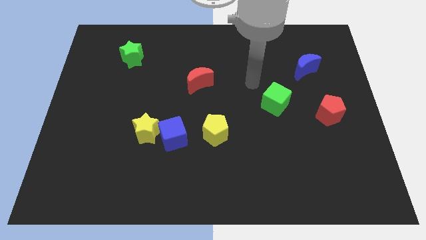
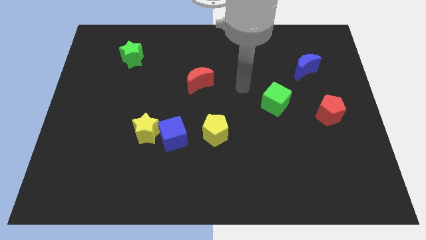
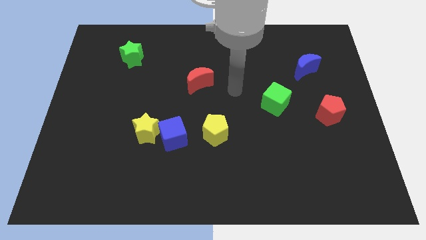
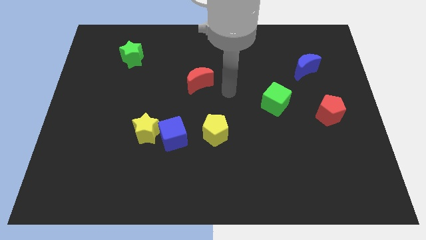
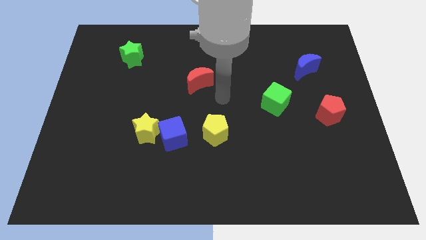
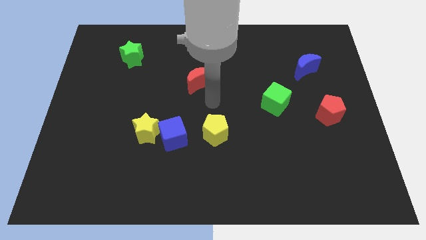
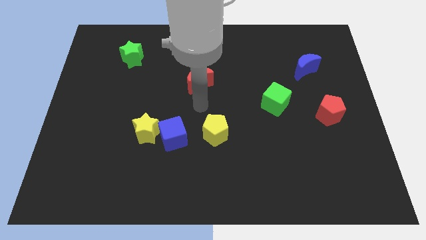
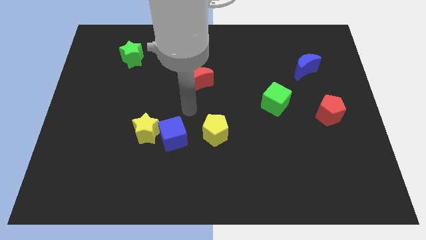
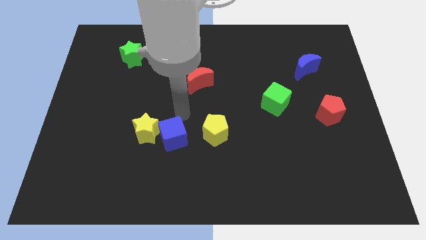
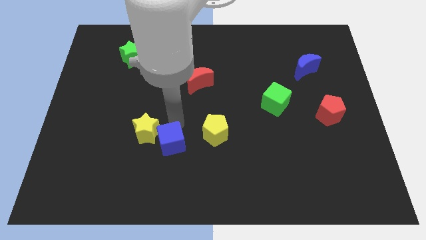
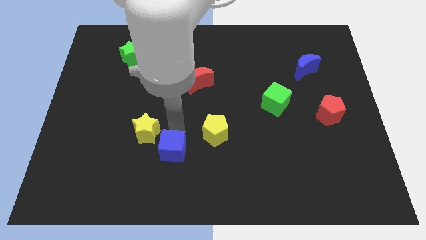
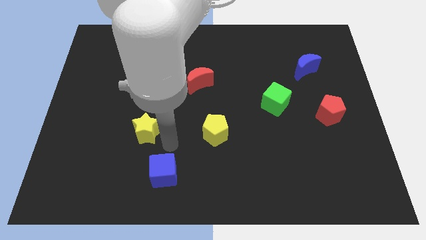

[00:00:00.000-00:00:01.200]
move the yellow star away from the blue cube

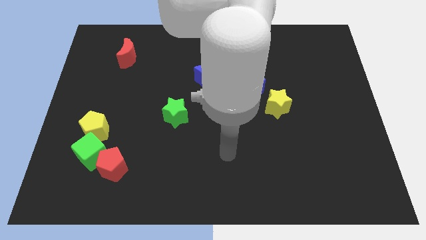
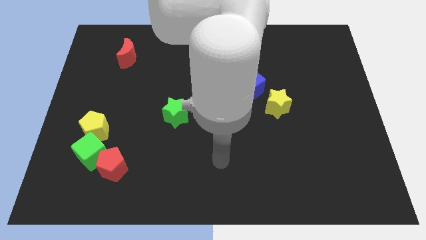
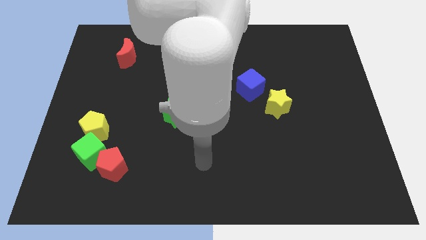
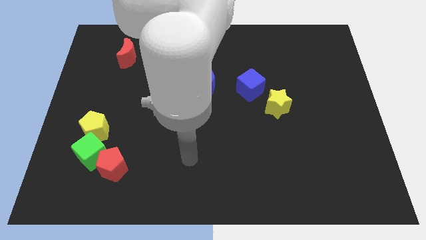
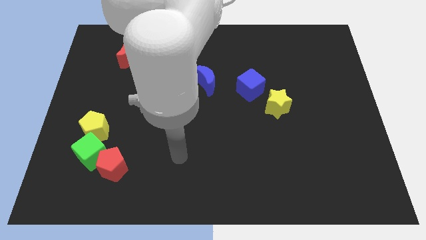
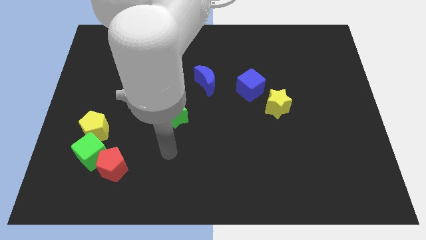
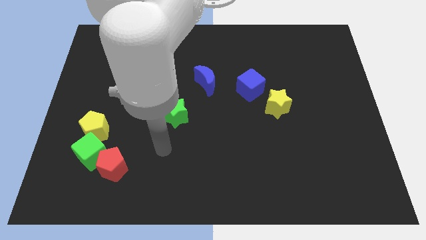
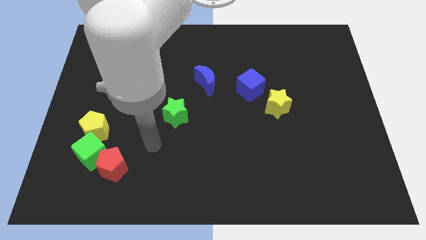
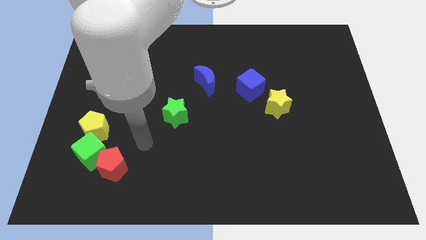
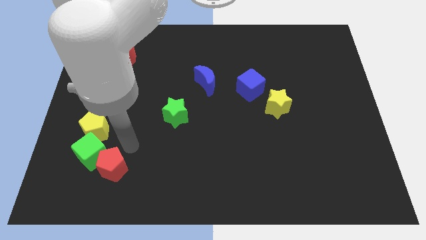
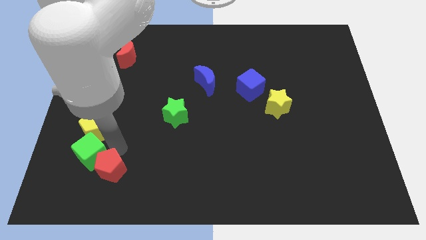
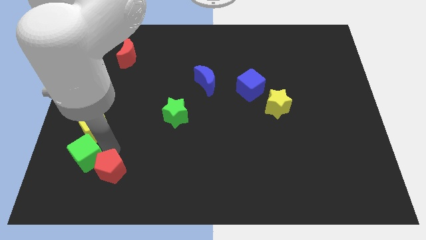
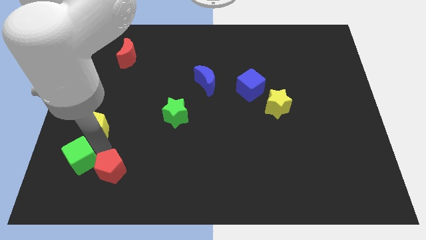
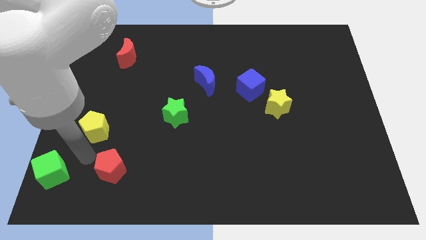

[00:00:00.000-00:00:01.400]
separate the red pentagon from the green cube

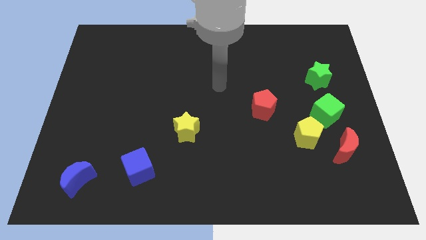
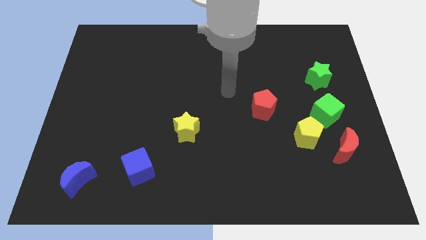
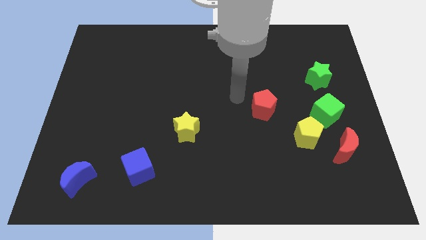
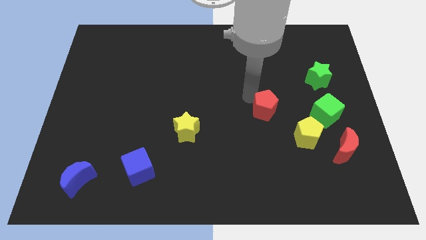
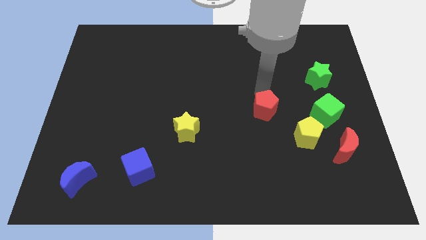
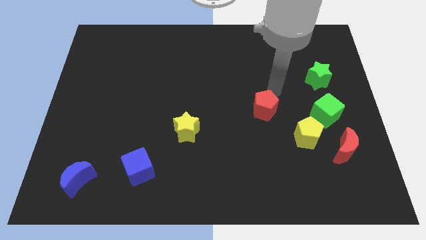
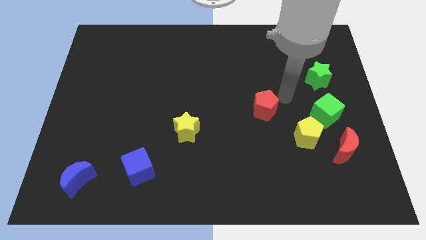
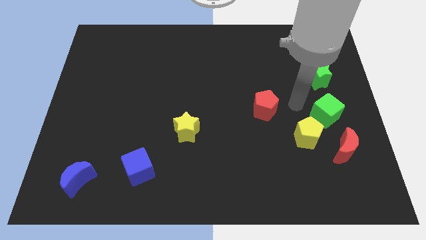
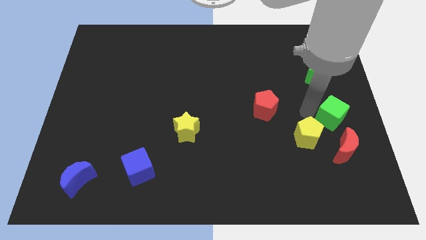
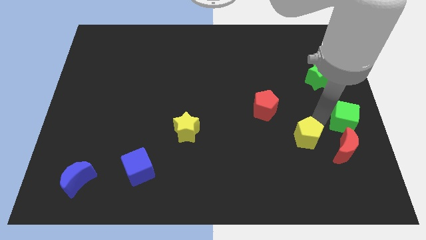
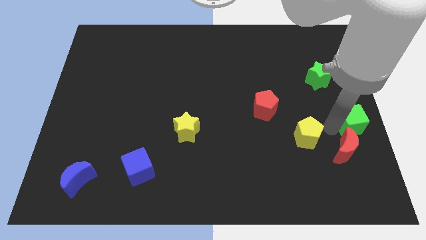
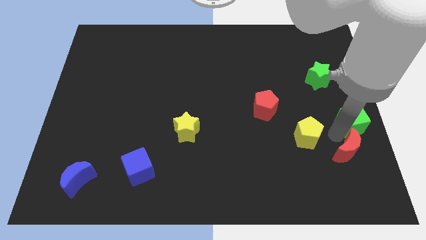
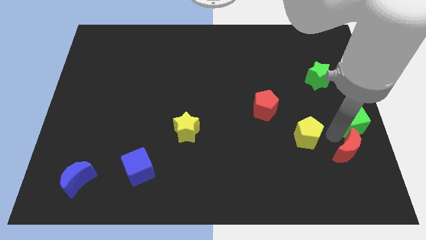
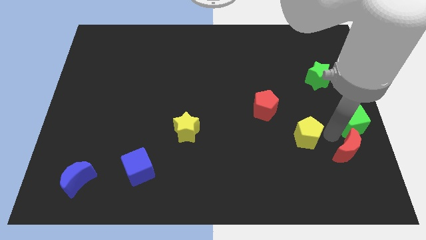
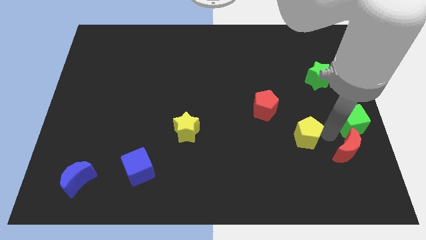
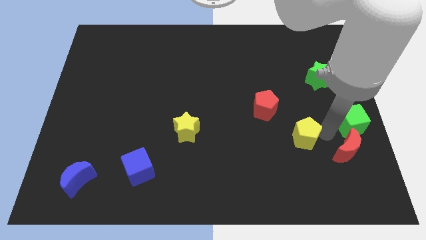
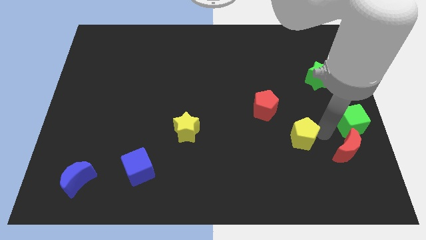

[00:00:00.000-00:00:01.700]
move the yellow pentagon away from the green cube and red moon

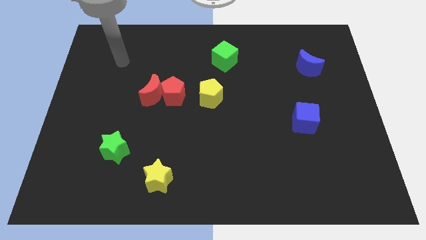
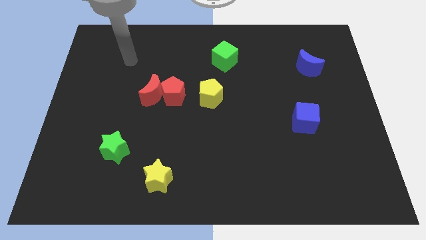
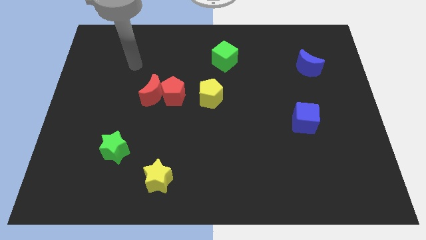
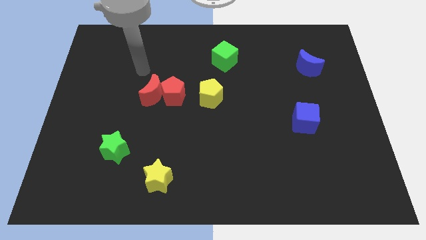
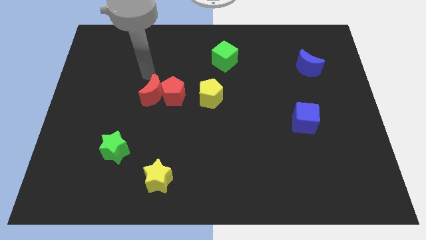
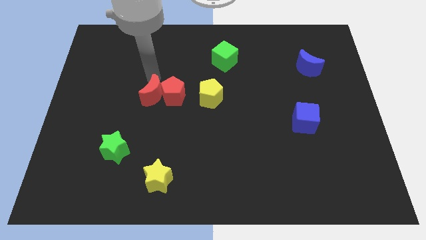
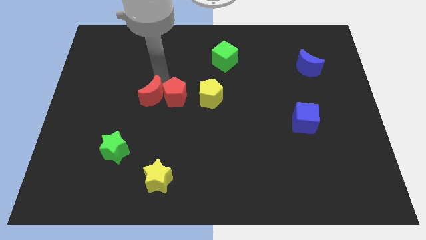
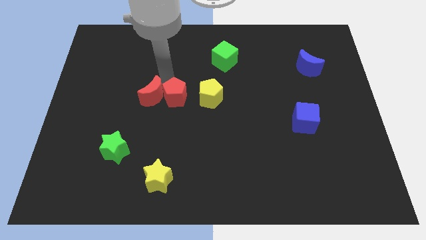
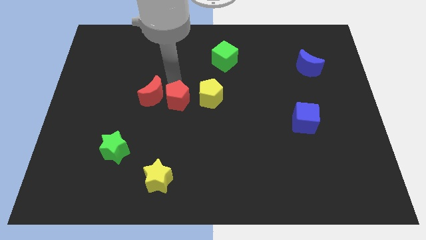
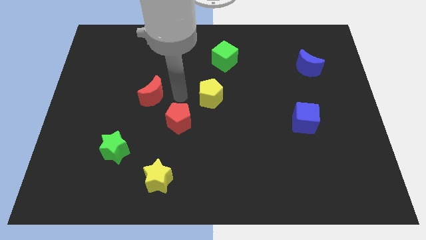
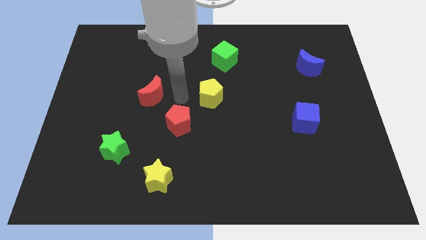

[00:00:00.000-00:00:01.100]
move the red moon away from the red pentagon

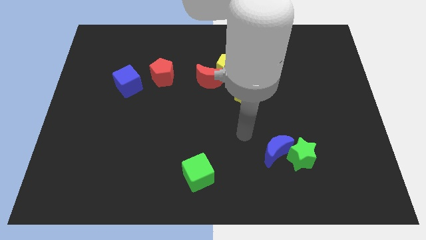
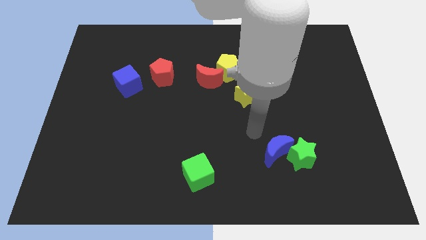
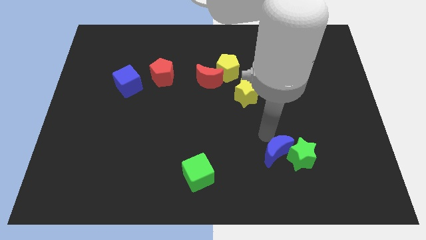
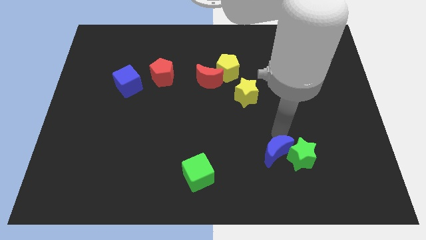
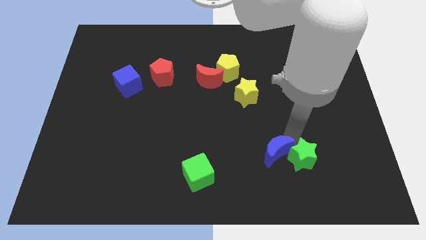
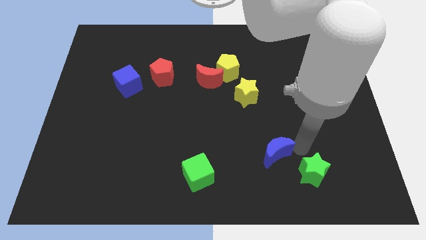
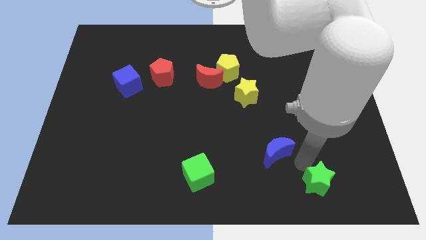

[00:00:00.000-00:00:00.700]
pull the blue moon apart from the green star

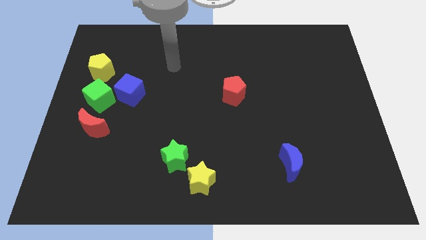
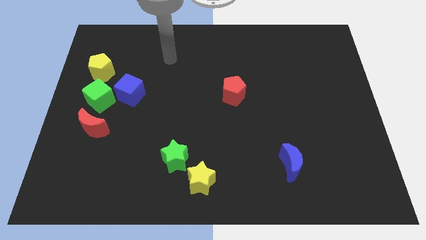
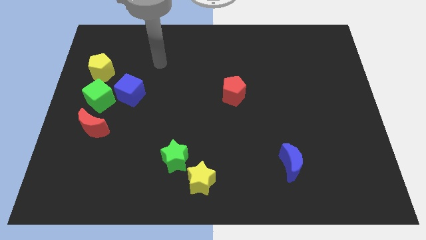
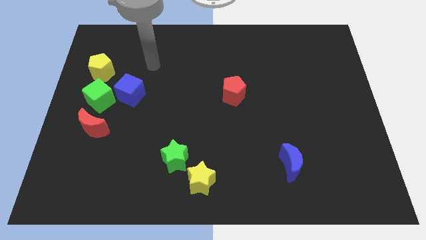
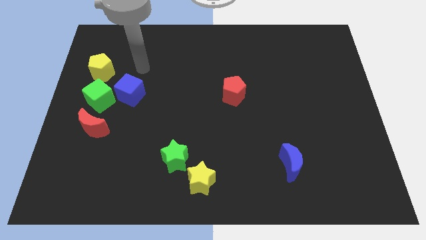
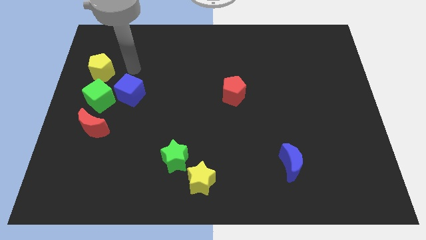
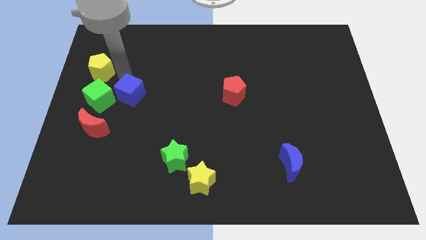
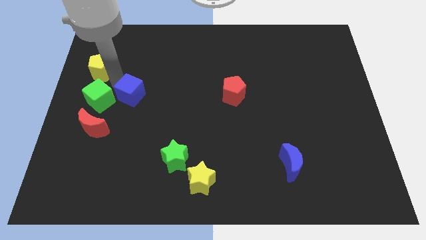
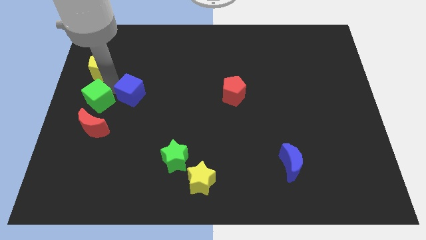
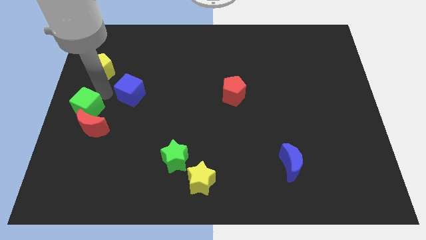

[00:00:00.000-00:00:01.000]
move the blue cube away from the green cube

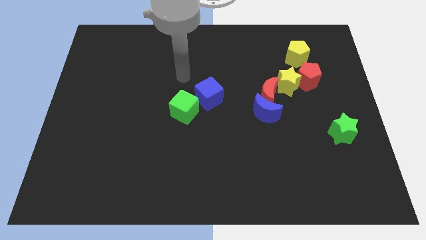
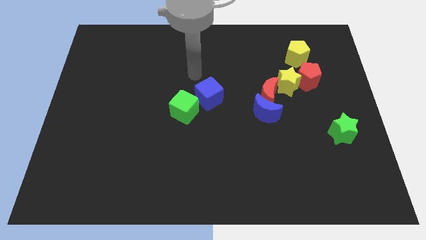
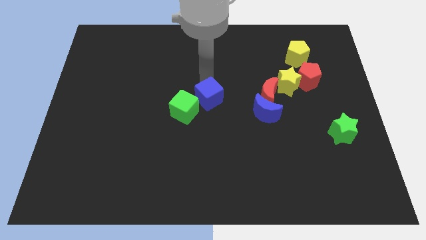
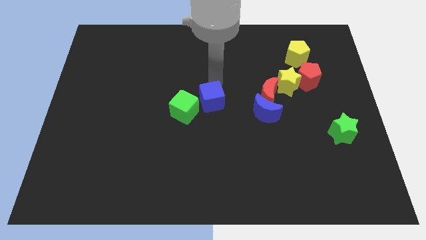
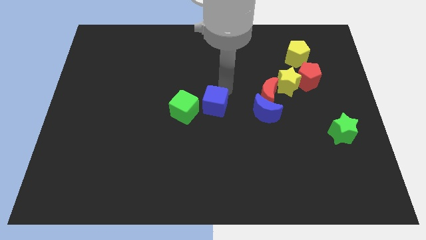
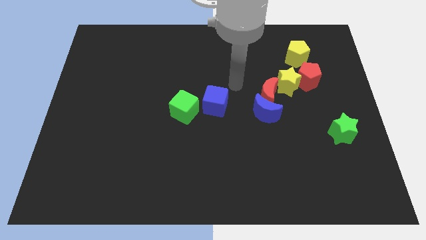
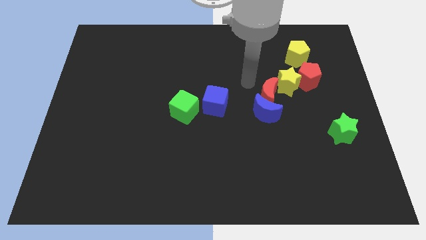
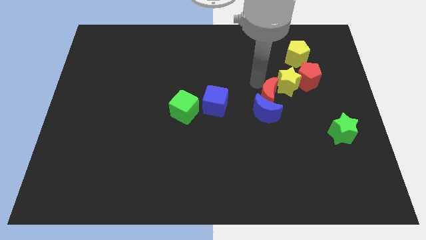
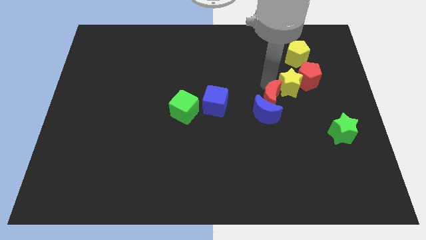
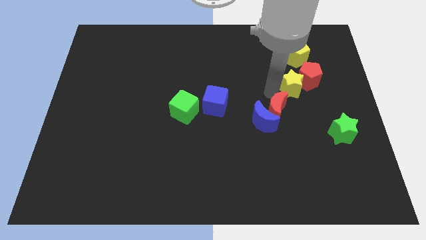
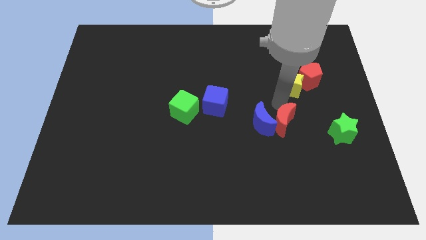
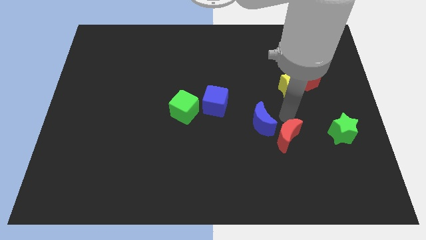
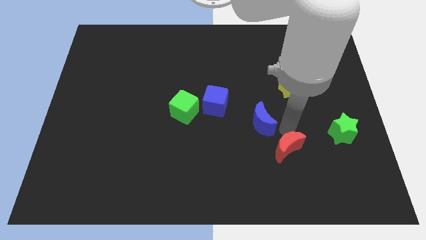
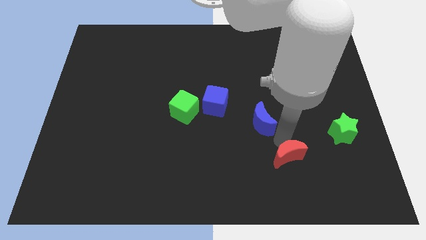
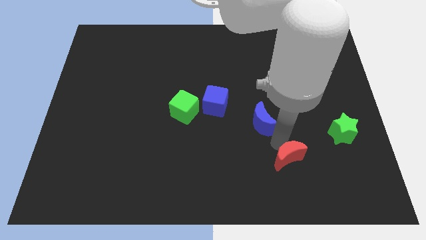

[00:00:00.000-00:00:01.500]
move the blue moon away from the red moon

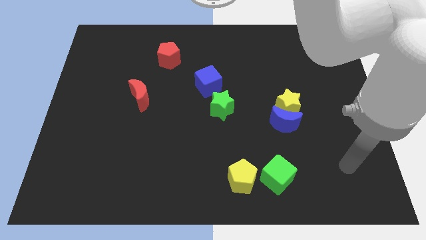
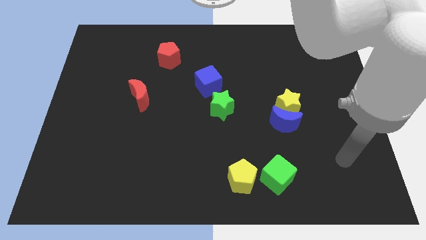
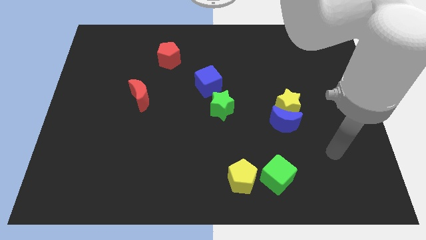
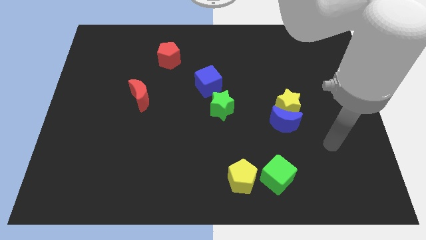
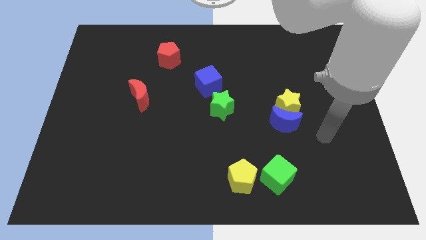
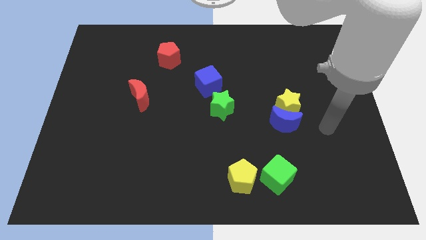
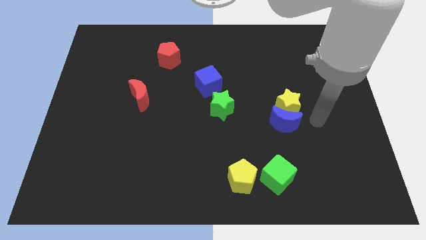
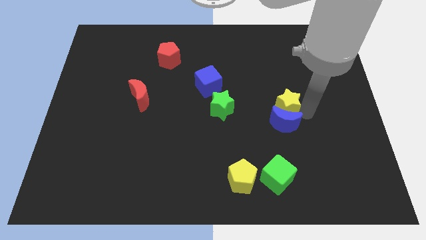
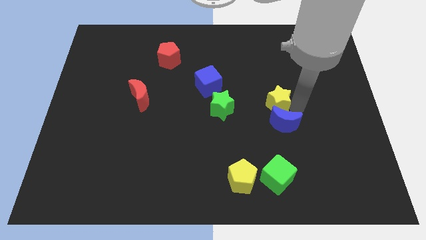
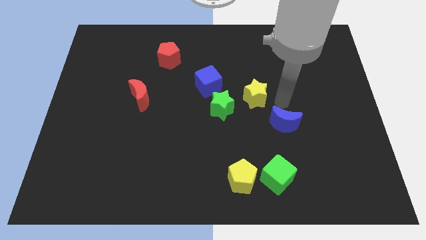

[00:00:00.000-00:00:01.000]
separate the blue moon from the yellow star
